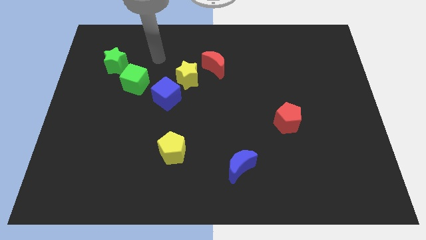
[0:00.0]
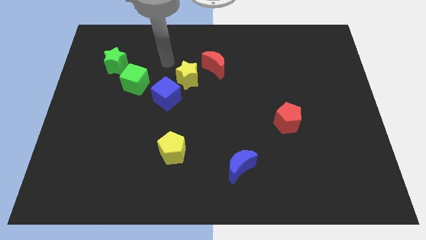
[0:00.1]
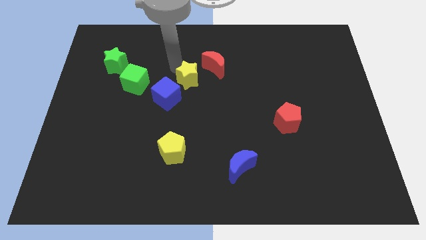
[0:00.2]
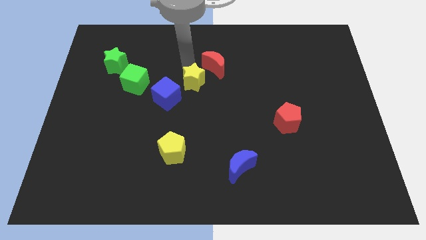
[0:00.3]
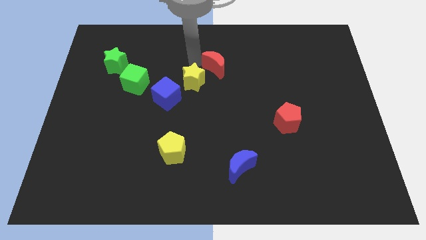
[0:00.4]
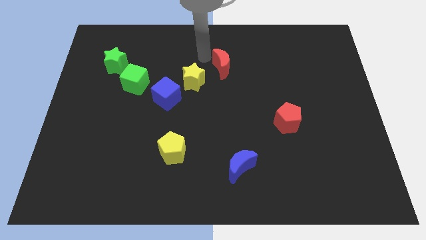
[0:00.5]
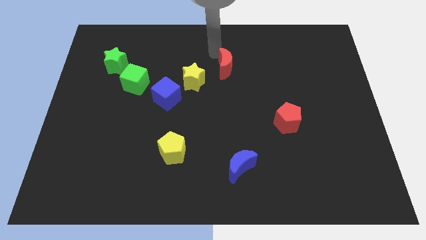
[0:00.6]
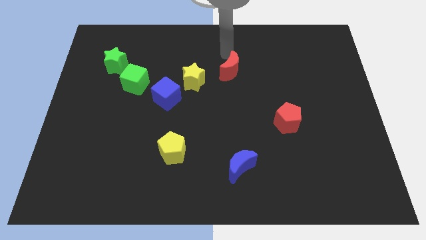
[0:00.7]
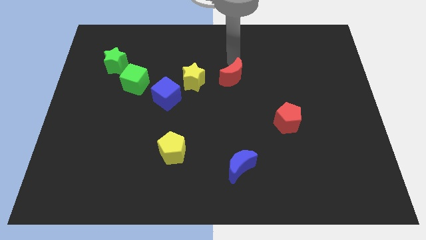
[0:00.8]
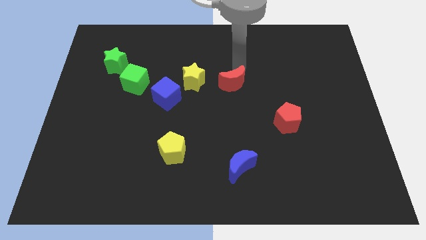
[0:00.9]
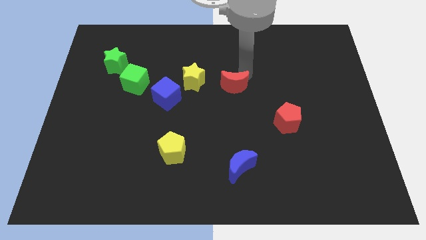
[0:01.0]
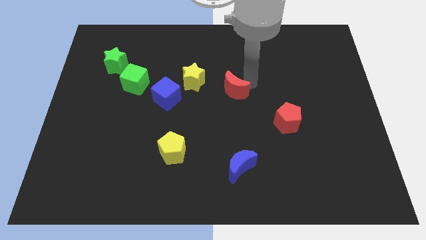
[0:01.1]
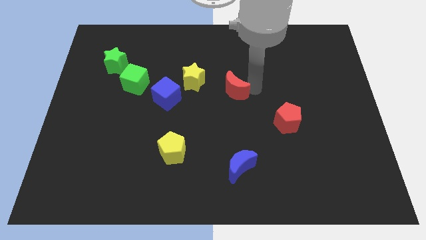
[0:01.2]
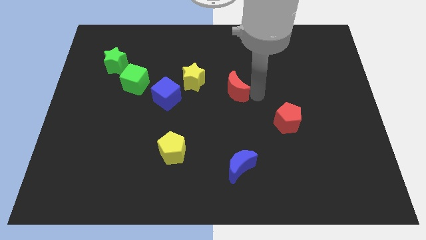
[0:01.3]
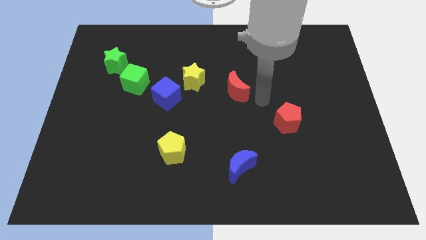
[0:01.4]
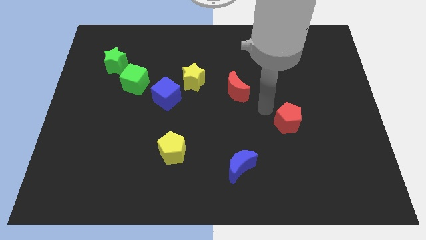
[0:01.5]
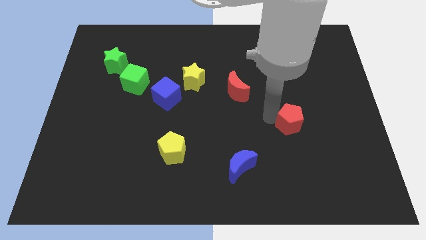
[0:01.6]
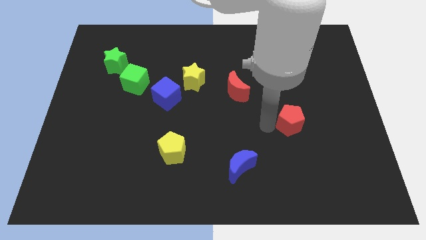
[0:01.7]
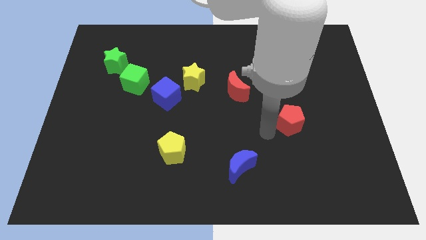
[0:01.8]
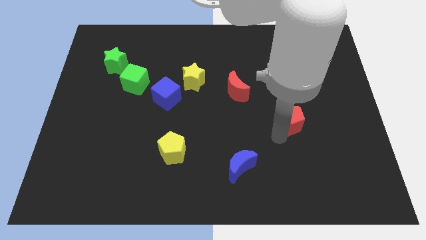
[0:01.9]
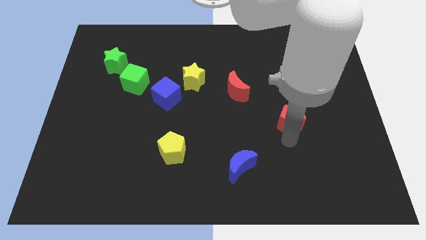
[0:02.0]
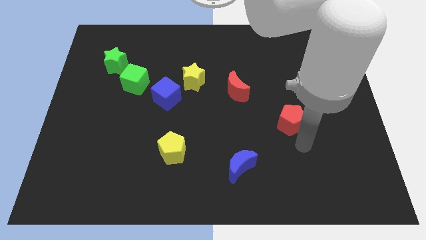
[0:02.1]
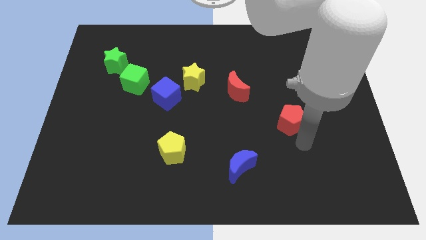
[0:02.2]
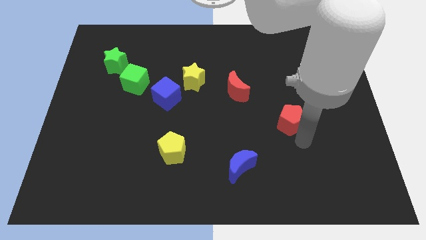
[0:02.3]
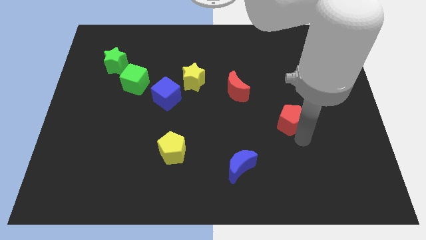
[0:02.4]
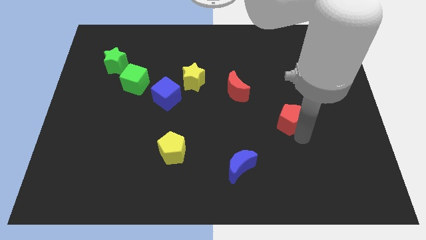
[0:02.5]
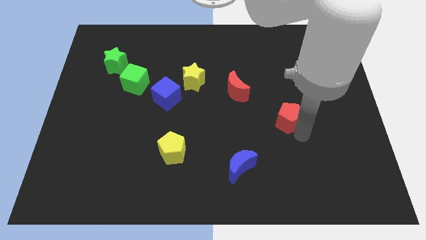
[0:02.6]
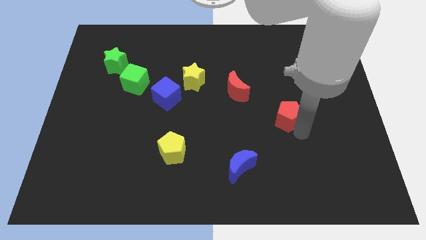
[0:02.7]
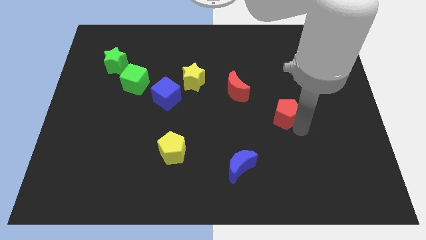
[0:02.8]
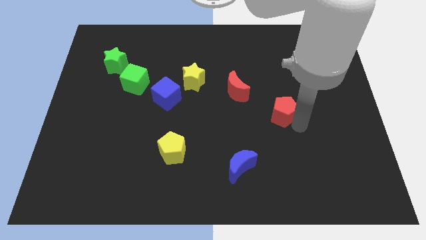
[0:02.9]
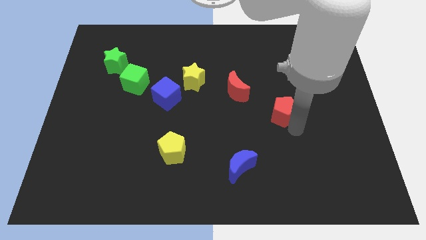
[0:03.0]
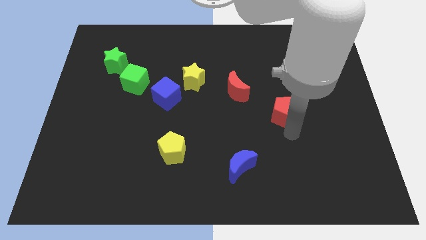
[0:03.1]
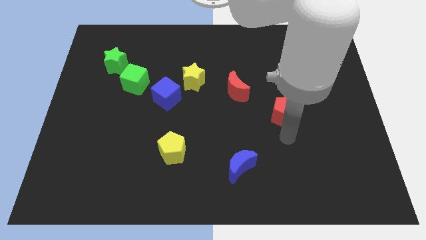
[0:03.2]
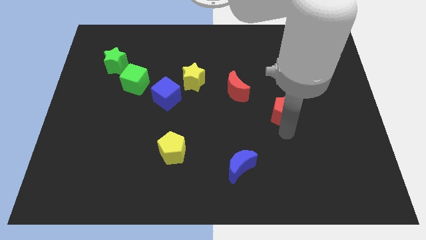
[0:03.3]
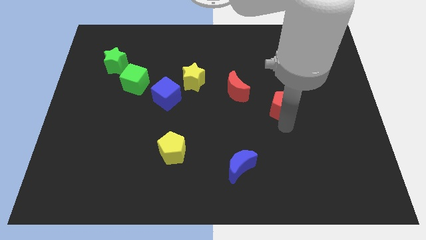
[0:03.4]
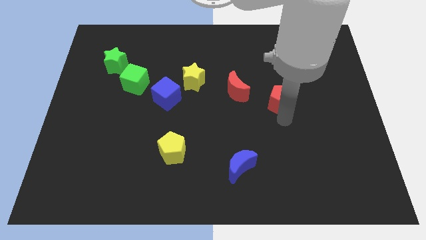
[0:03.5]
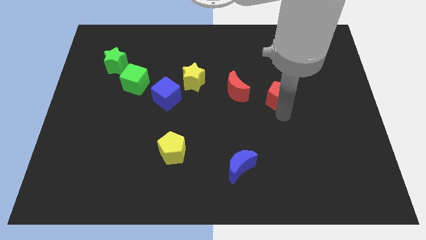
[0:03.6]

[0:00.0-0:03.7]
slightly push the red pentagon upwards

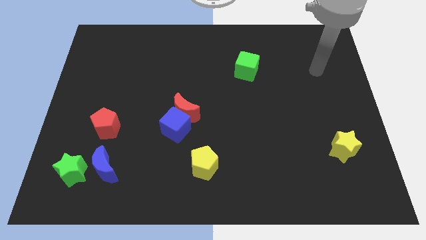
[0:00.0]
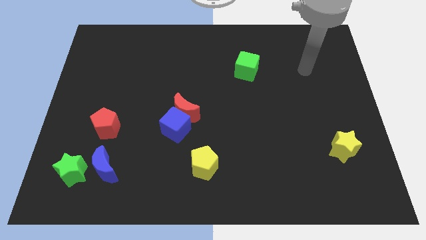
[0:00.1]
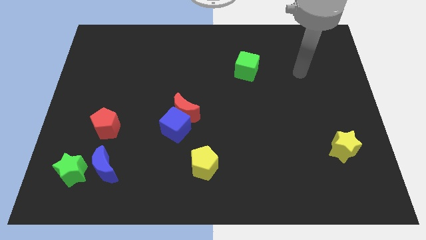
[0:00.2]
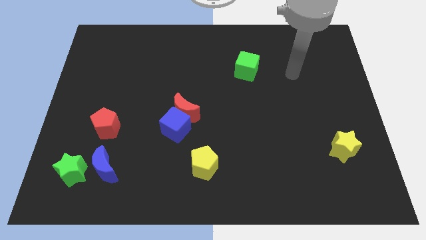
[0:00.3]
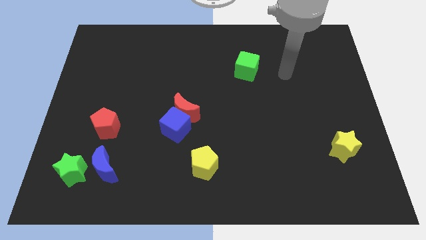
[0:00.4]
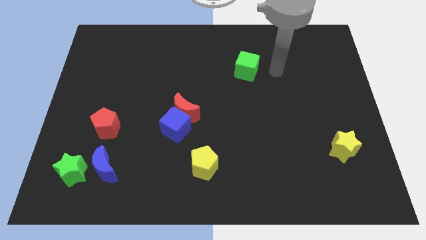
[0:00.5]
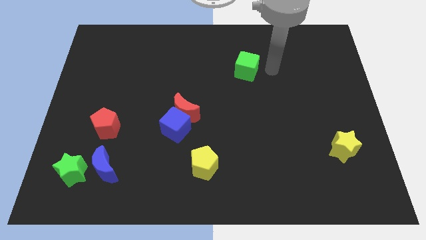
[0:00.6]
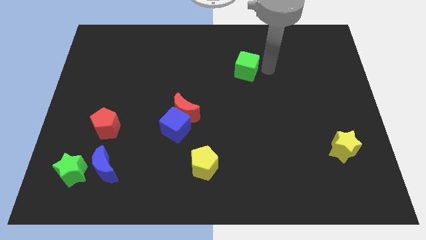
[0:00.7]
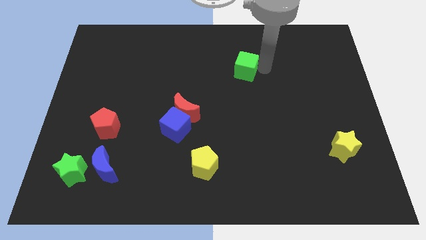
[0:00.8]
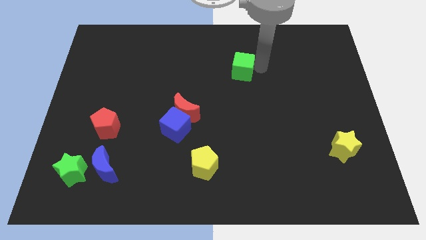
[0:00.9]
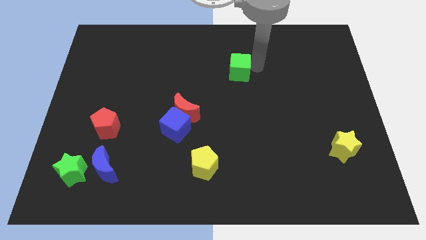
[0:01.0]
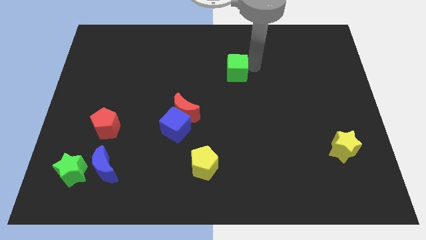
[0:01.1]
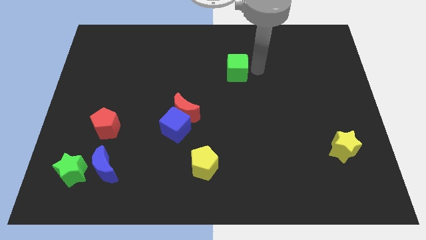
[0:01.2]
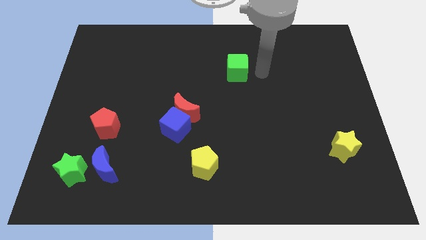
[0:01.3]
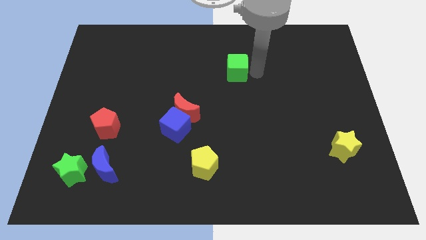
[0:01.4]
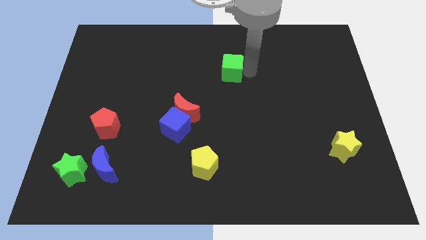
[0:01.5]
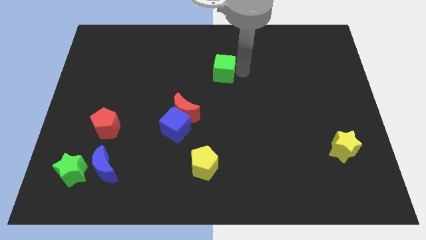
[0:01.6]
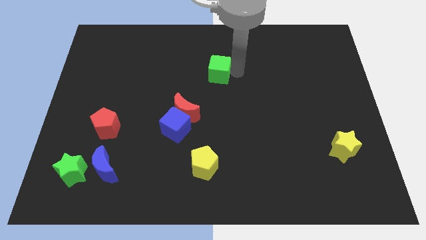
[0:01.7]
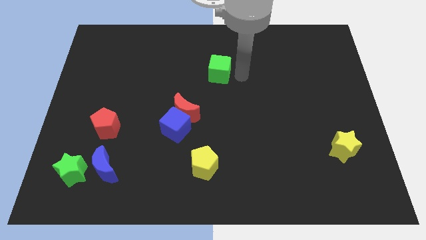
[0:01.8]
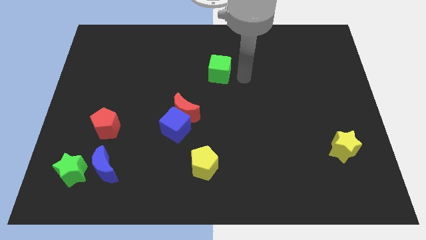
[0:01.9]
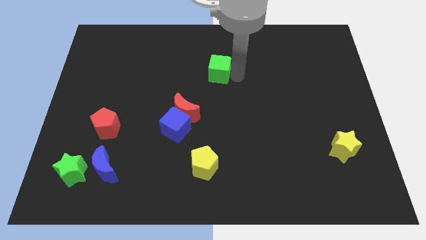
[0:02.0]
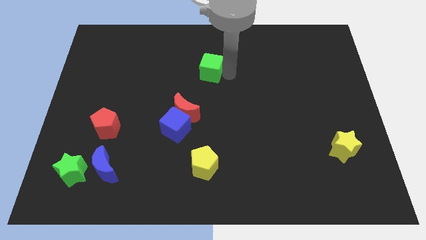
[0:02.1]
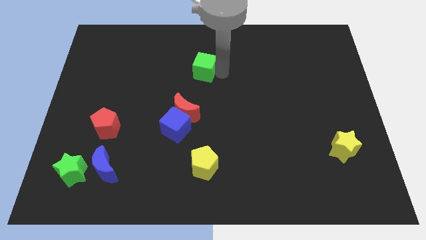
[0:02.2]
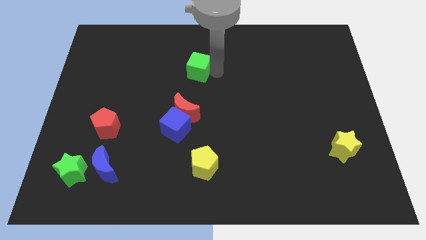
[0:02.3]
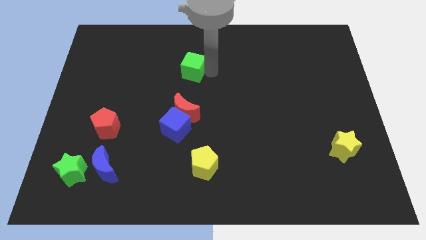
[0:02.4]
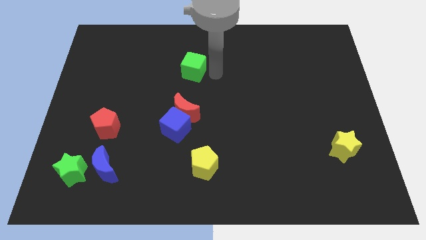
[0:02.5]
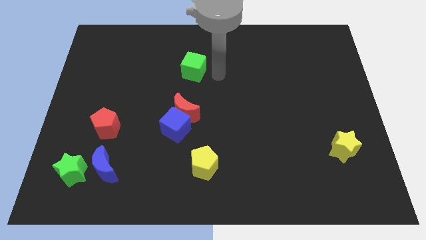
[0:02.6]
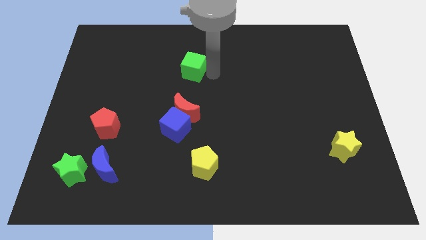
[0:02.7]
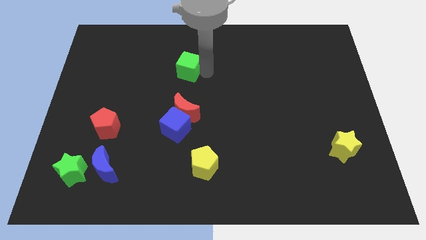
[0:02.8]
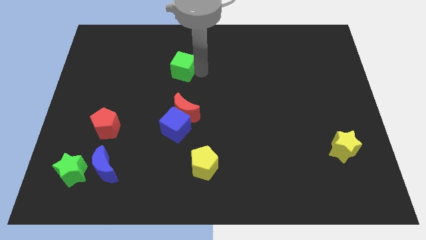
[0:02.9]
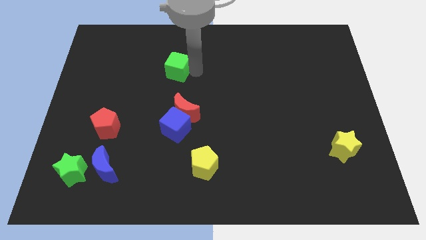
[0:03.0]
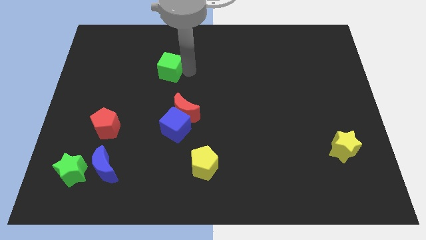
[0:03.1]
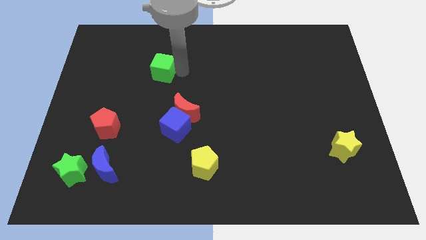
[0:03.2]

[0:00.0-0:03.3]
push the green cube to the left

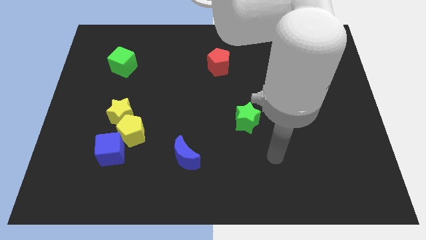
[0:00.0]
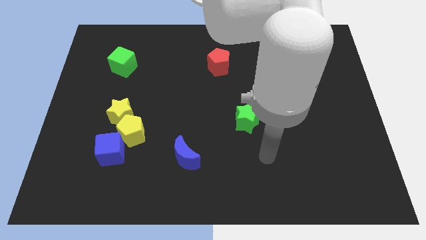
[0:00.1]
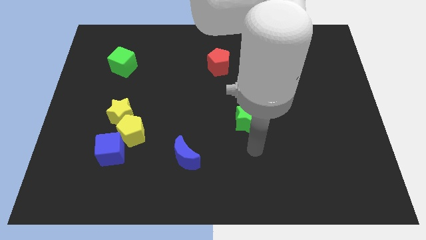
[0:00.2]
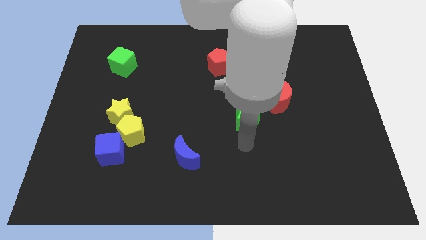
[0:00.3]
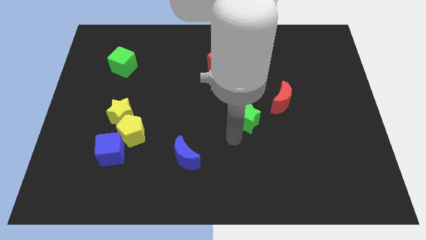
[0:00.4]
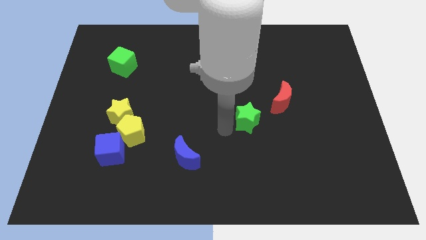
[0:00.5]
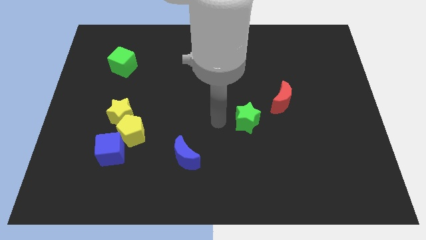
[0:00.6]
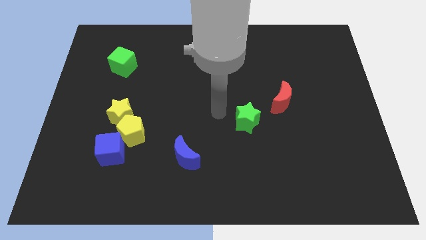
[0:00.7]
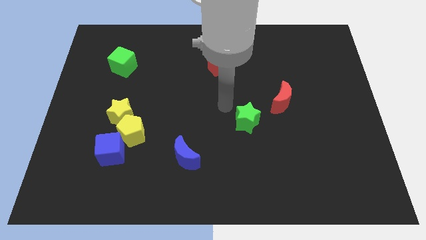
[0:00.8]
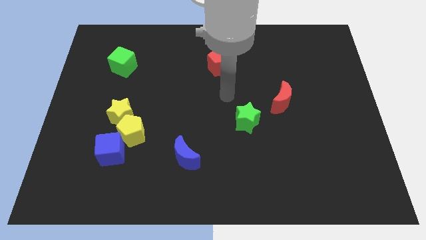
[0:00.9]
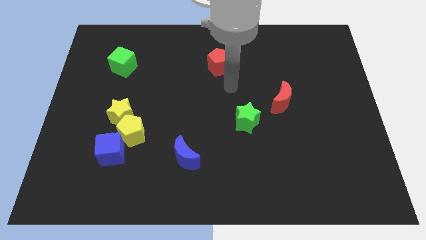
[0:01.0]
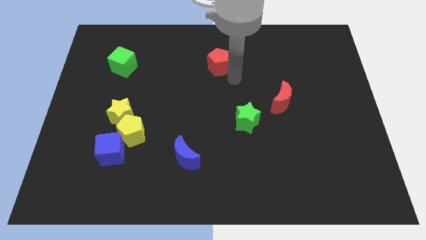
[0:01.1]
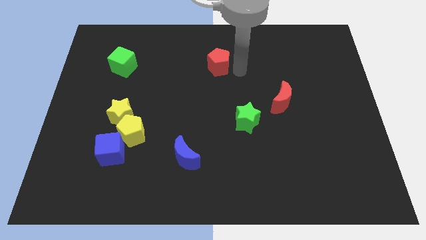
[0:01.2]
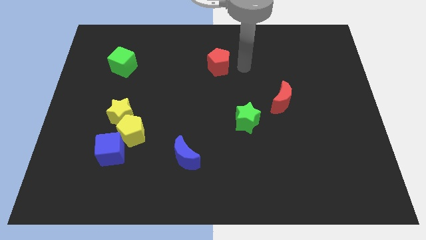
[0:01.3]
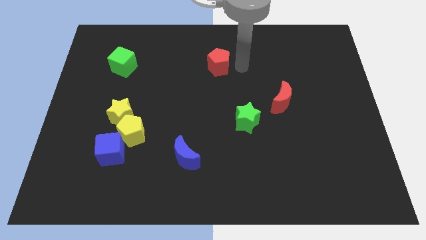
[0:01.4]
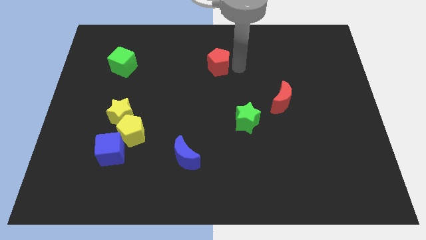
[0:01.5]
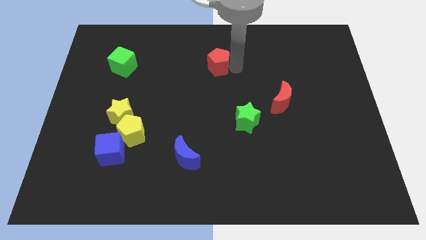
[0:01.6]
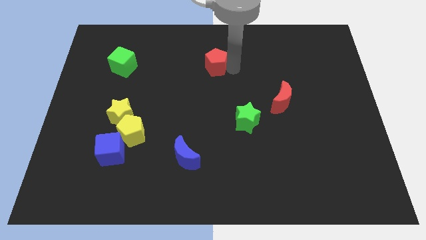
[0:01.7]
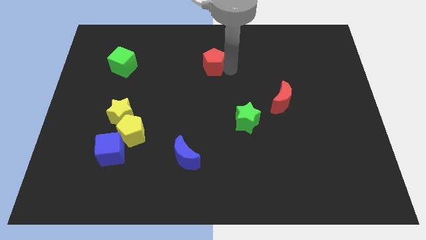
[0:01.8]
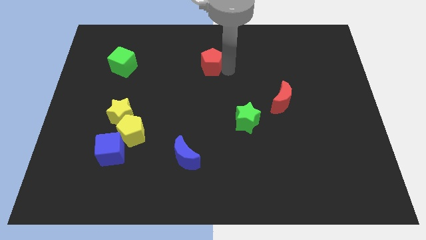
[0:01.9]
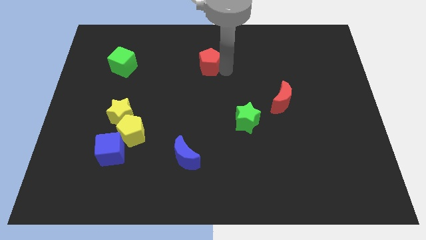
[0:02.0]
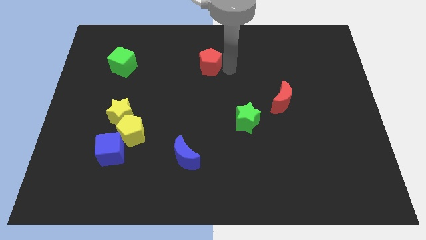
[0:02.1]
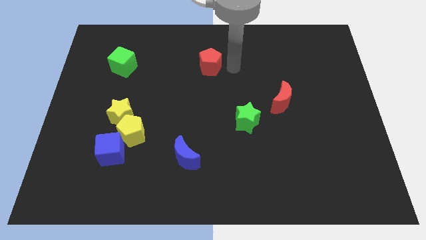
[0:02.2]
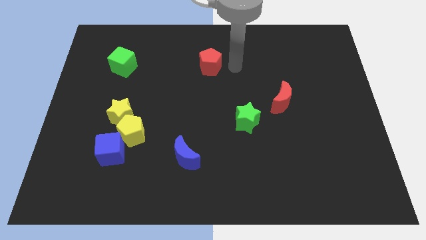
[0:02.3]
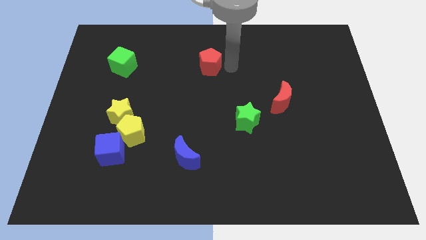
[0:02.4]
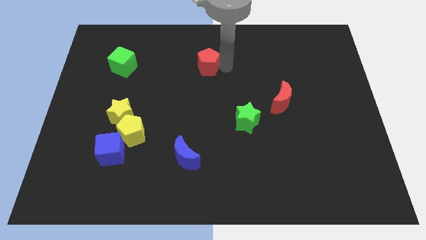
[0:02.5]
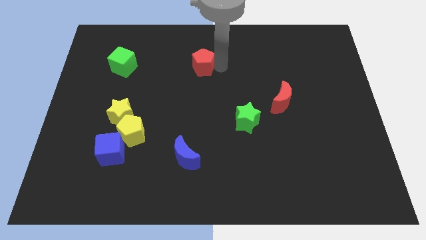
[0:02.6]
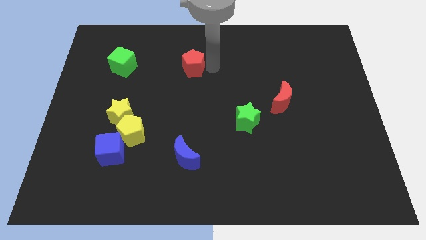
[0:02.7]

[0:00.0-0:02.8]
slide the red pentagon a bit left
